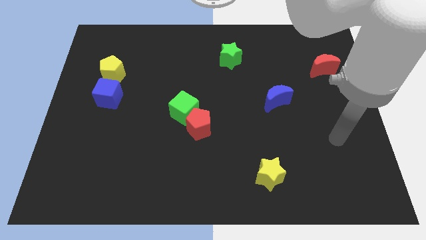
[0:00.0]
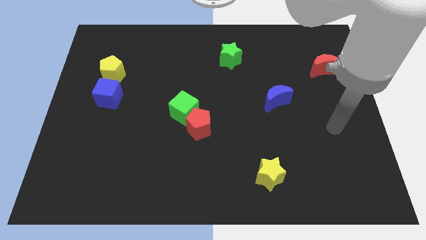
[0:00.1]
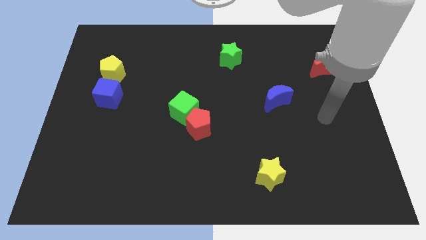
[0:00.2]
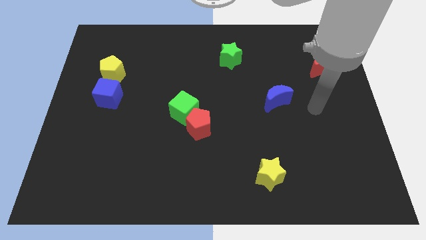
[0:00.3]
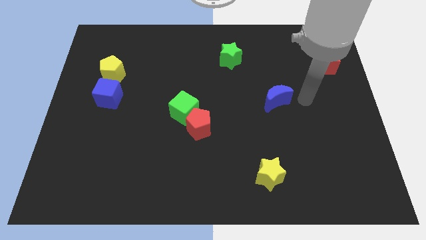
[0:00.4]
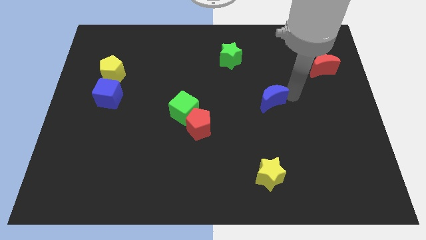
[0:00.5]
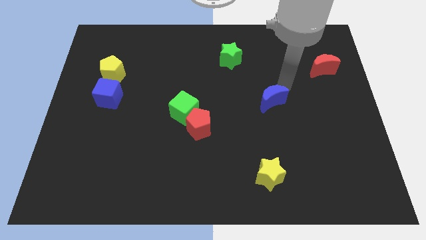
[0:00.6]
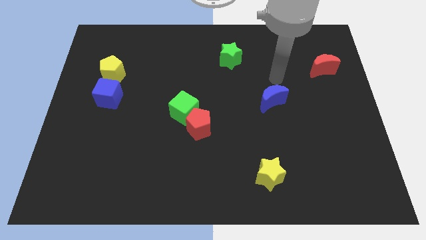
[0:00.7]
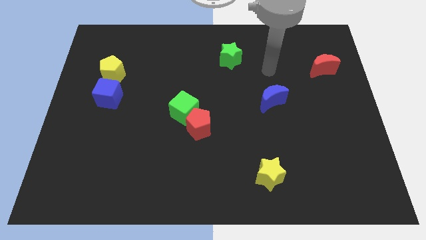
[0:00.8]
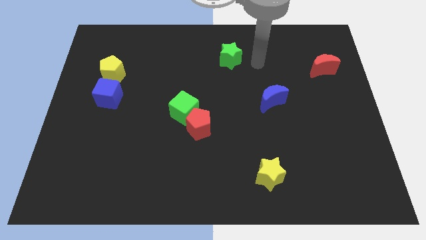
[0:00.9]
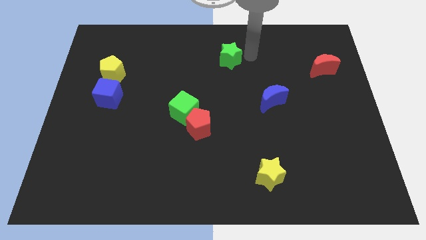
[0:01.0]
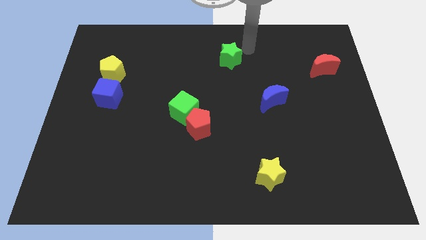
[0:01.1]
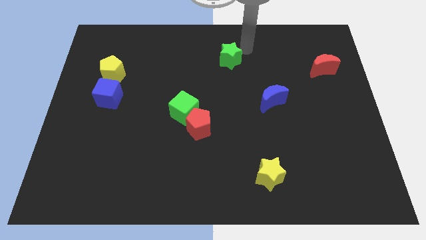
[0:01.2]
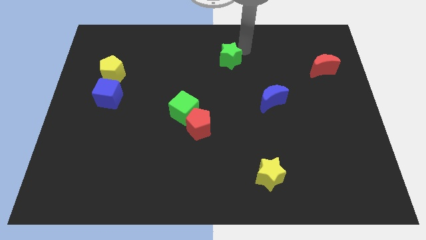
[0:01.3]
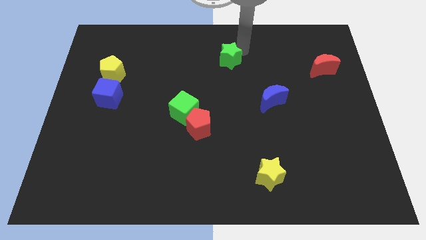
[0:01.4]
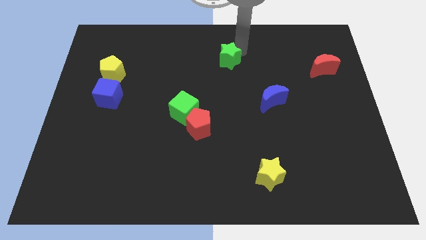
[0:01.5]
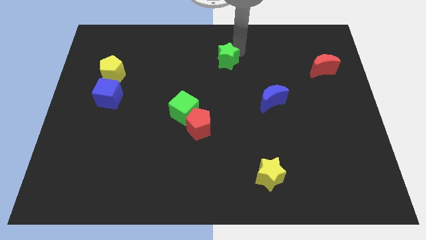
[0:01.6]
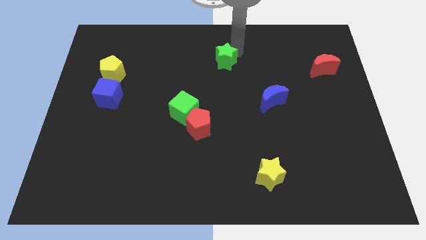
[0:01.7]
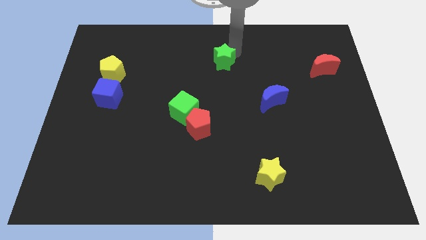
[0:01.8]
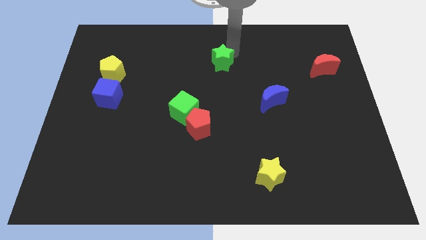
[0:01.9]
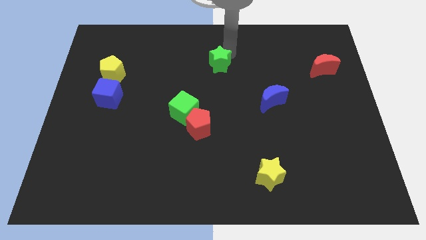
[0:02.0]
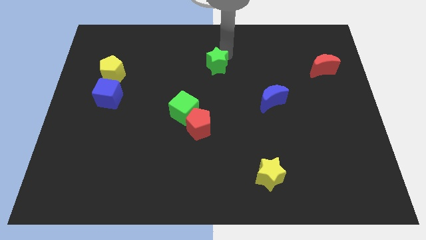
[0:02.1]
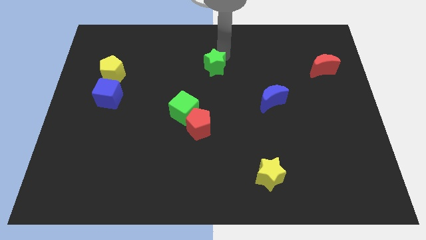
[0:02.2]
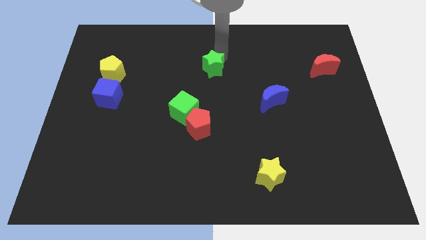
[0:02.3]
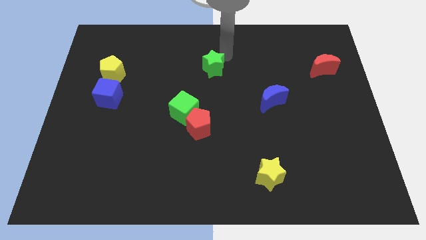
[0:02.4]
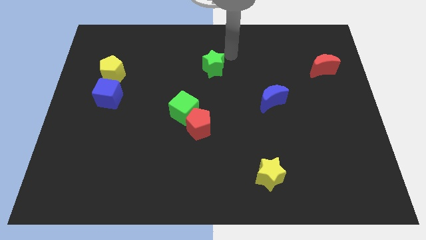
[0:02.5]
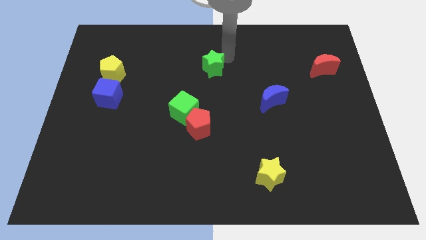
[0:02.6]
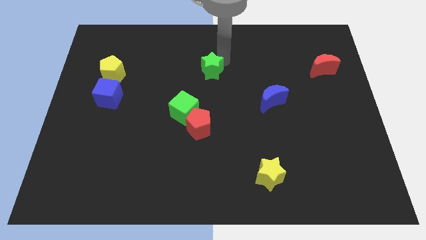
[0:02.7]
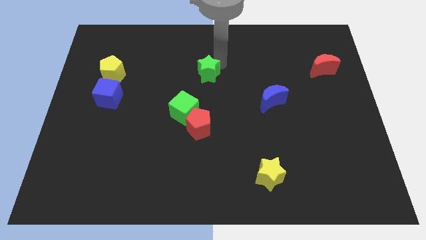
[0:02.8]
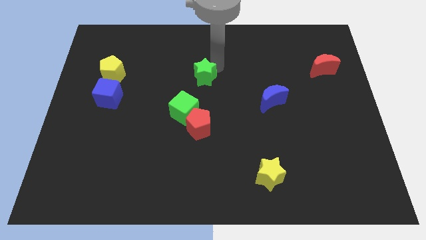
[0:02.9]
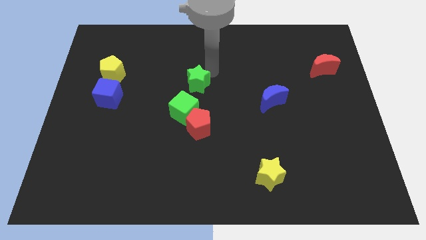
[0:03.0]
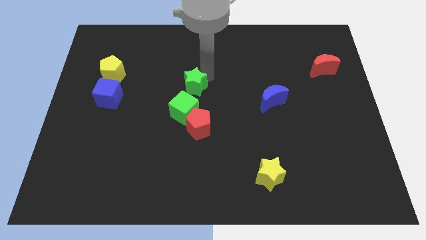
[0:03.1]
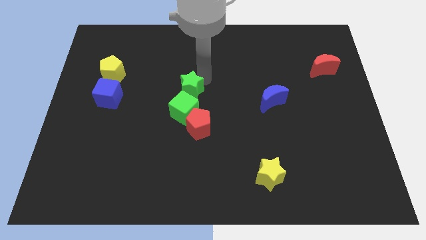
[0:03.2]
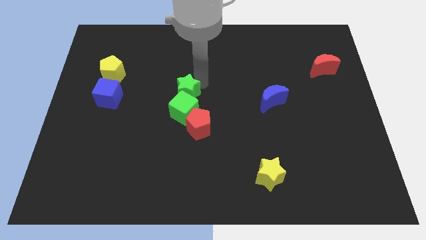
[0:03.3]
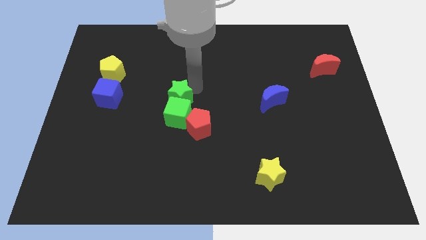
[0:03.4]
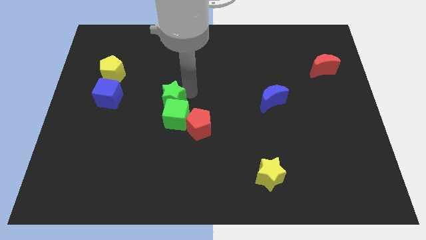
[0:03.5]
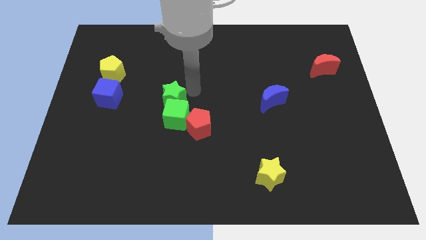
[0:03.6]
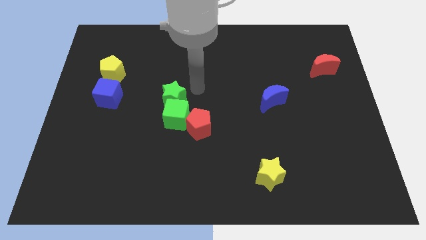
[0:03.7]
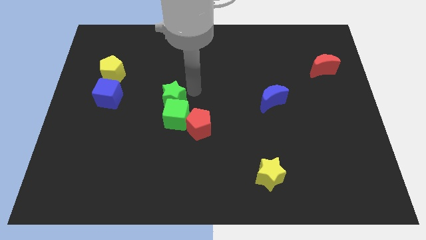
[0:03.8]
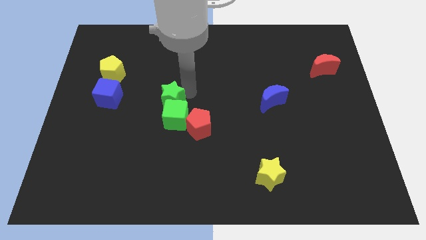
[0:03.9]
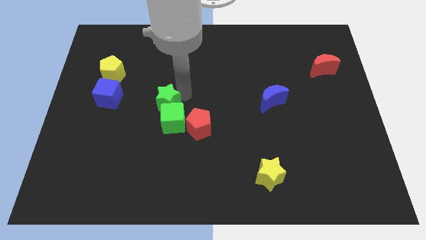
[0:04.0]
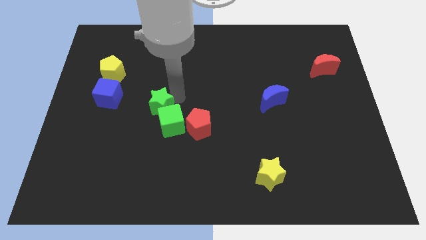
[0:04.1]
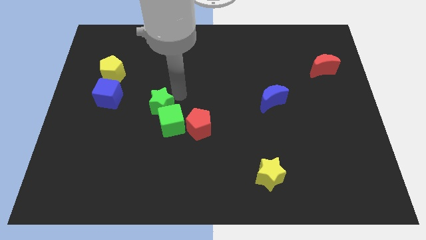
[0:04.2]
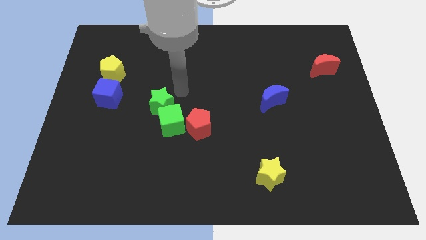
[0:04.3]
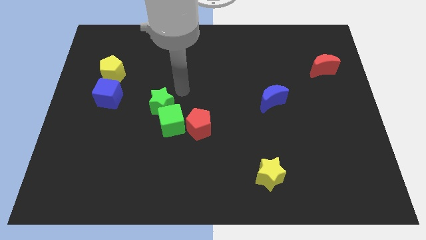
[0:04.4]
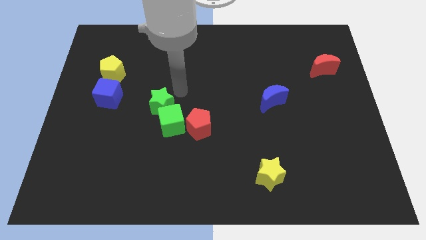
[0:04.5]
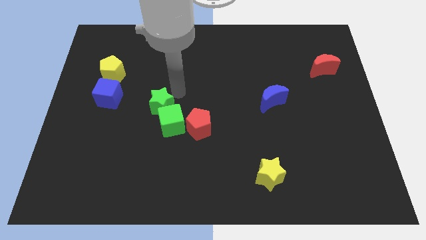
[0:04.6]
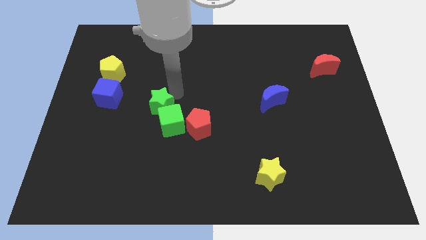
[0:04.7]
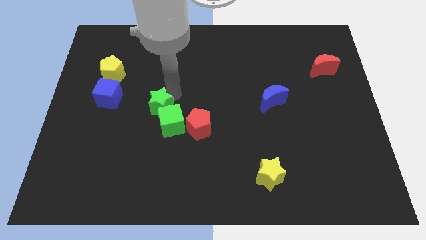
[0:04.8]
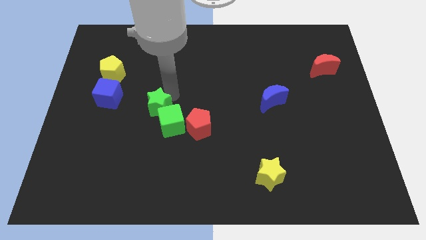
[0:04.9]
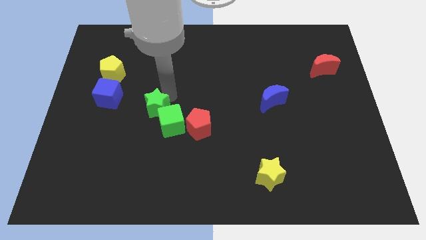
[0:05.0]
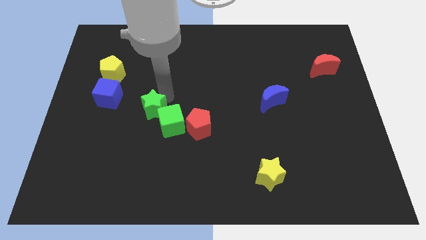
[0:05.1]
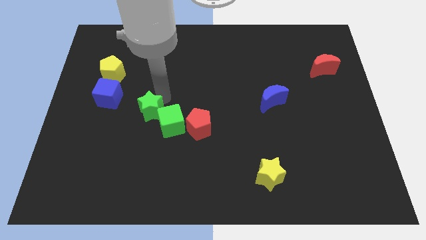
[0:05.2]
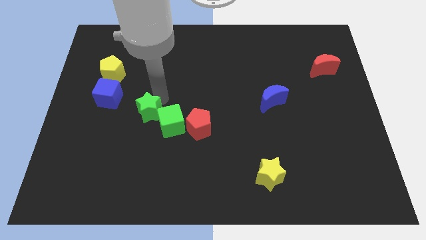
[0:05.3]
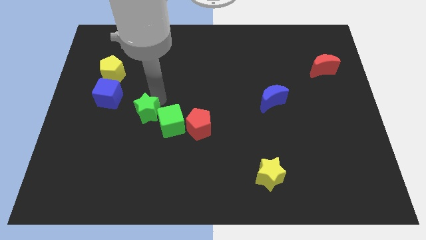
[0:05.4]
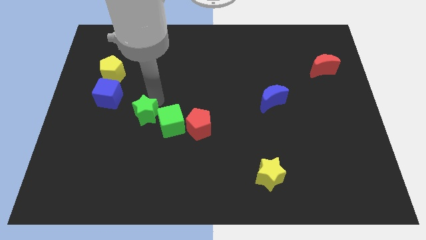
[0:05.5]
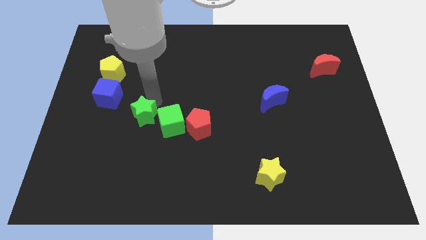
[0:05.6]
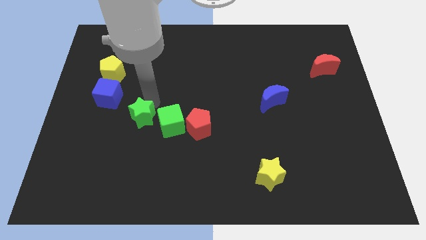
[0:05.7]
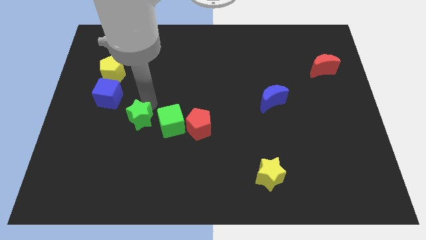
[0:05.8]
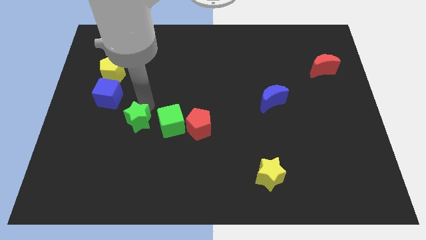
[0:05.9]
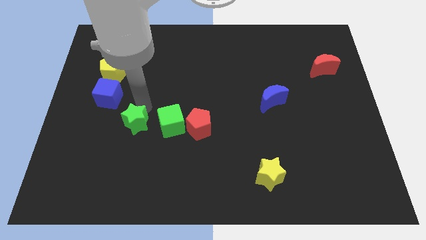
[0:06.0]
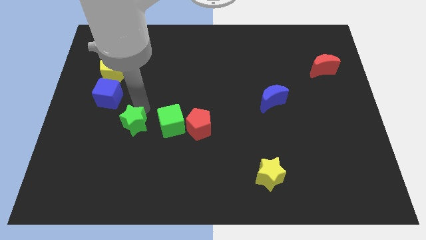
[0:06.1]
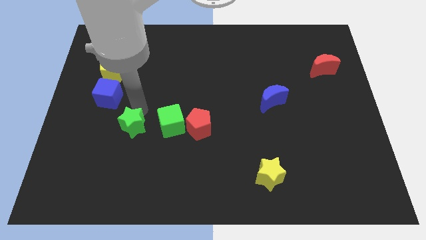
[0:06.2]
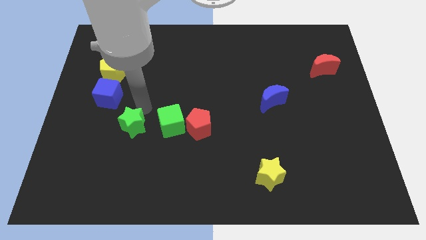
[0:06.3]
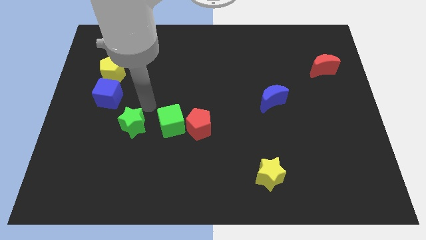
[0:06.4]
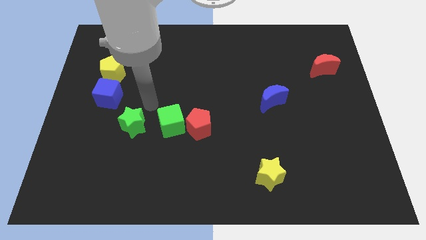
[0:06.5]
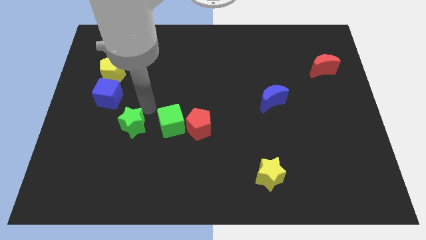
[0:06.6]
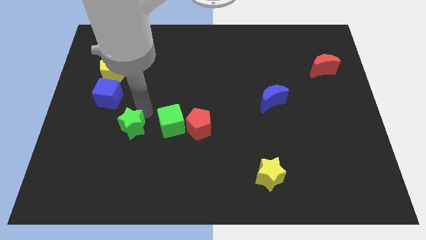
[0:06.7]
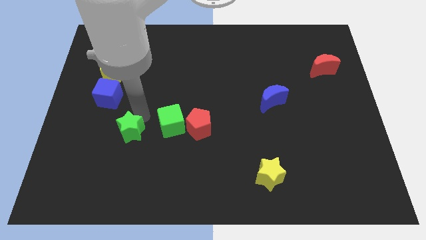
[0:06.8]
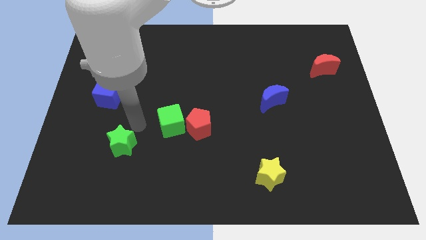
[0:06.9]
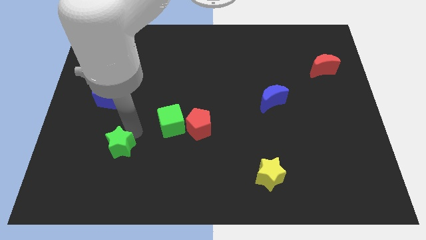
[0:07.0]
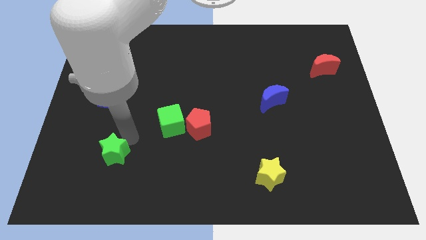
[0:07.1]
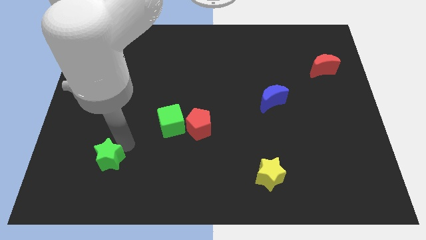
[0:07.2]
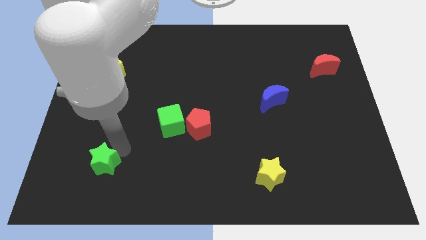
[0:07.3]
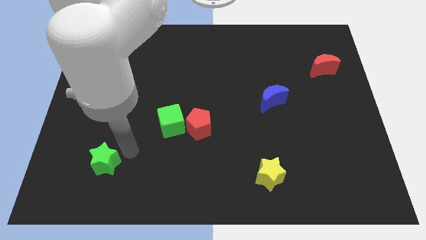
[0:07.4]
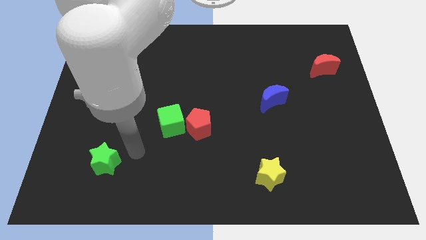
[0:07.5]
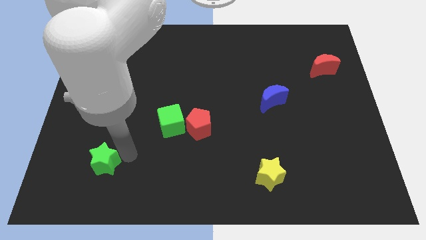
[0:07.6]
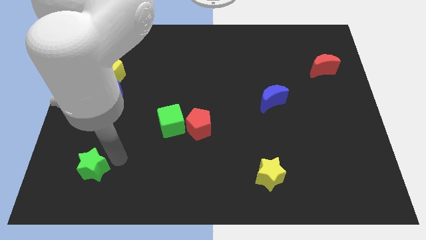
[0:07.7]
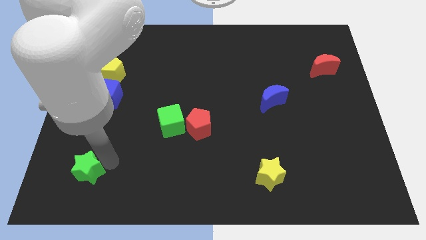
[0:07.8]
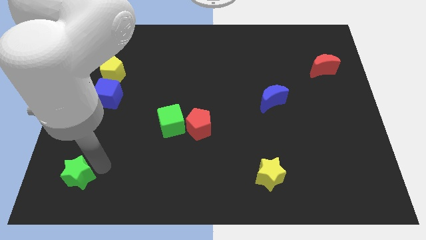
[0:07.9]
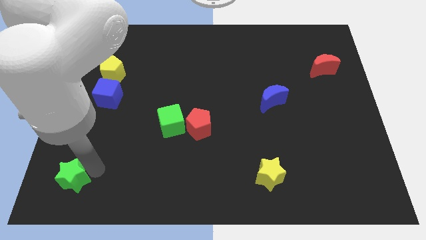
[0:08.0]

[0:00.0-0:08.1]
put the green star to the lower left corner
